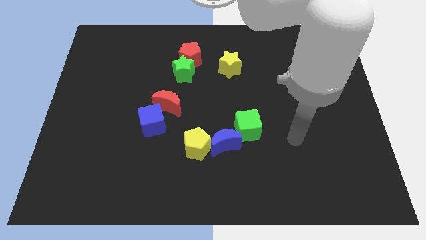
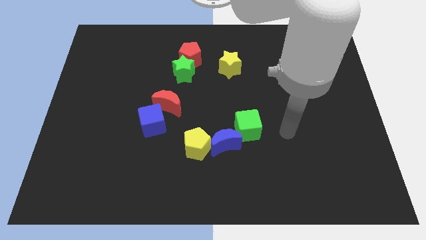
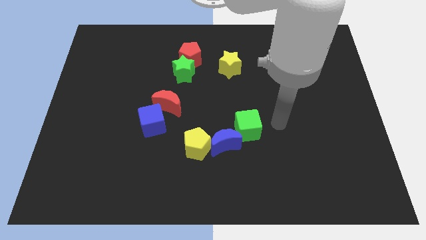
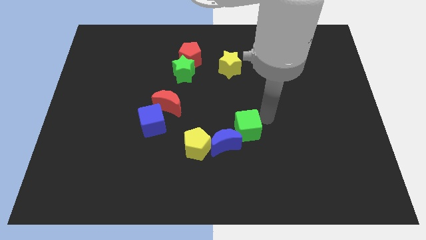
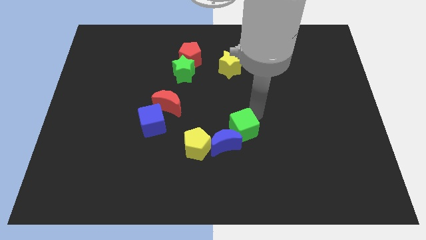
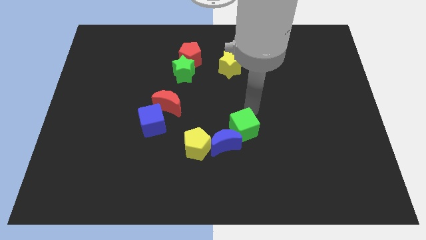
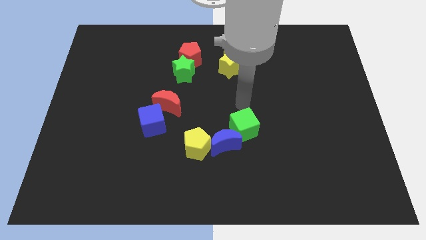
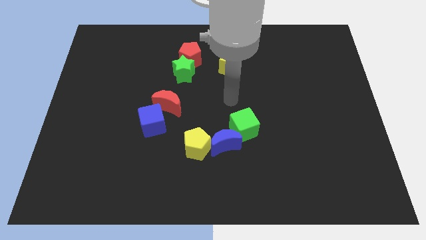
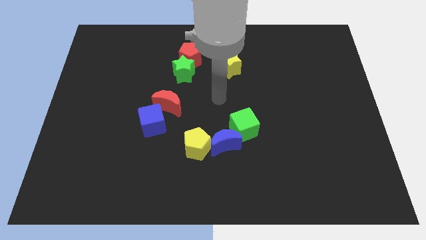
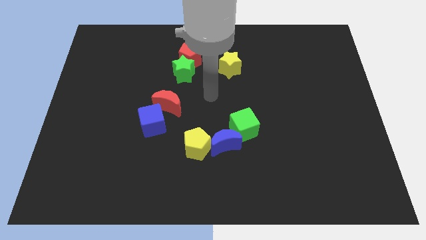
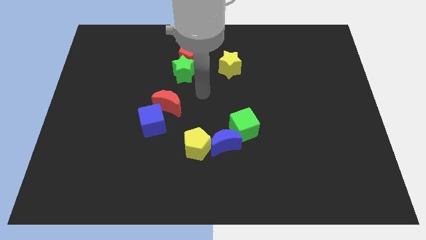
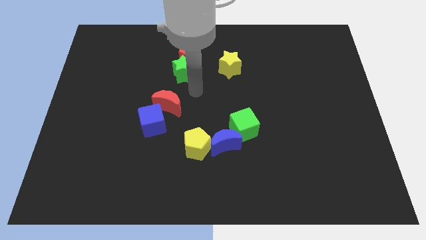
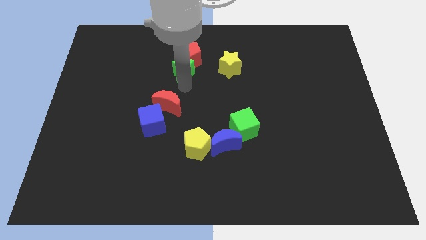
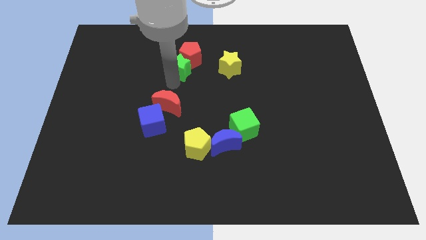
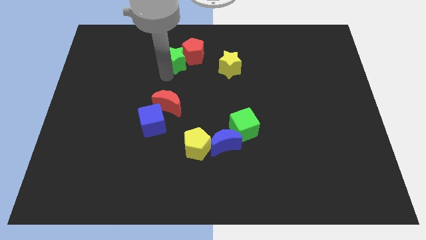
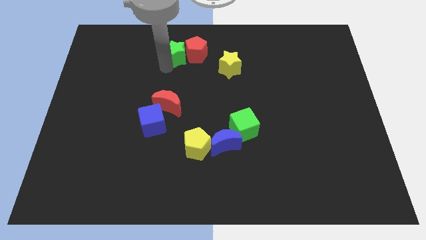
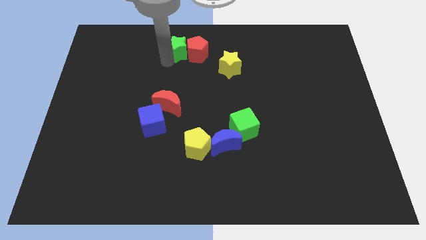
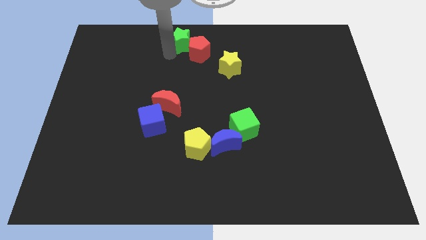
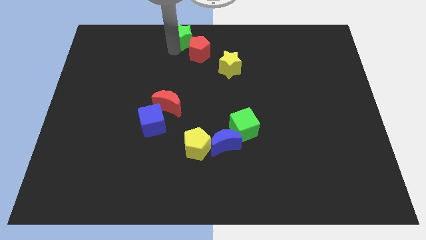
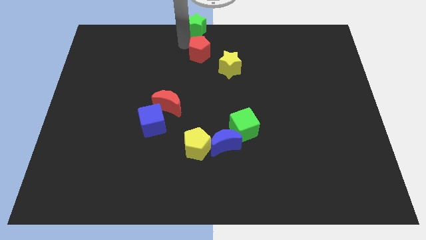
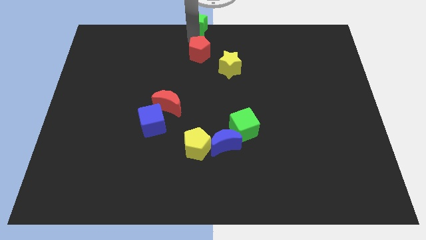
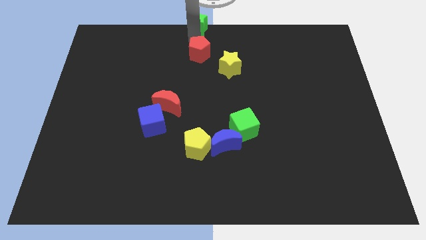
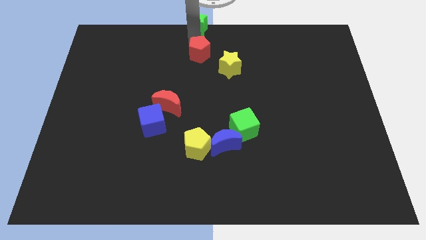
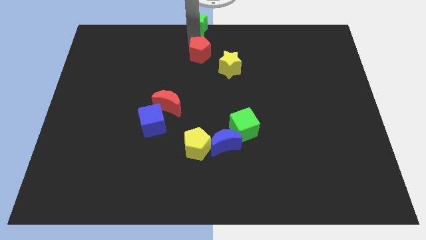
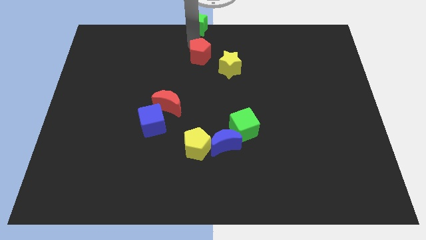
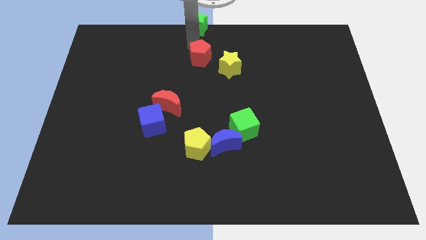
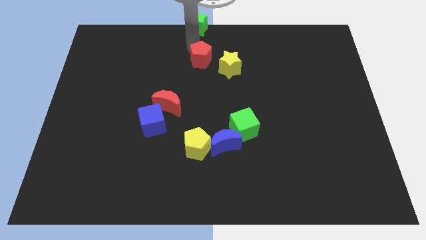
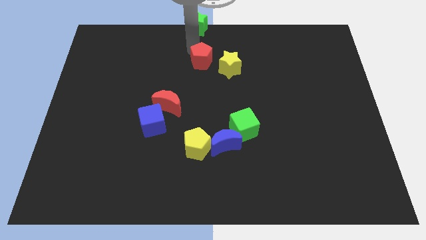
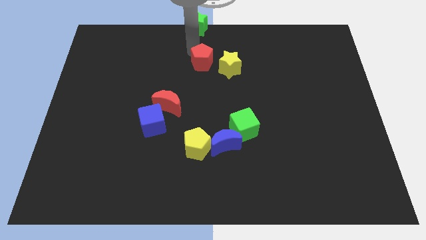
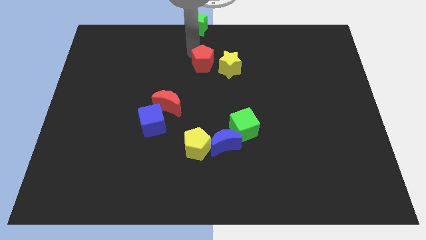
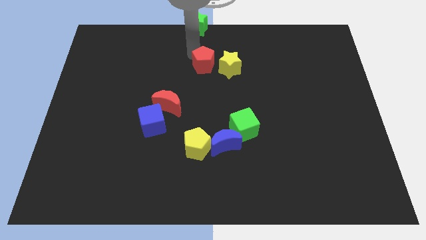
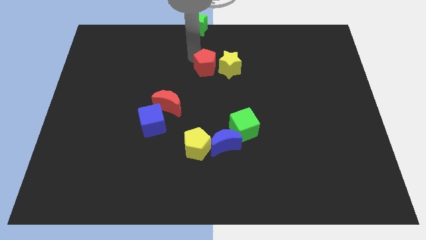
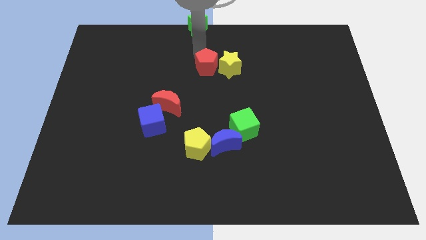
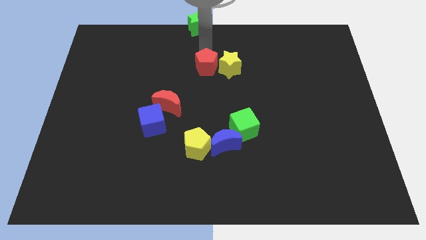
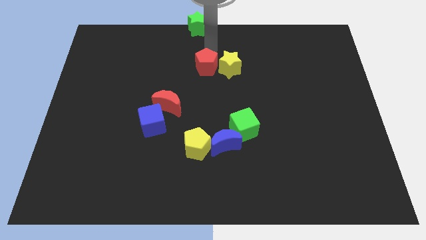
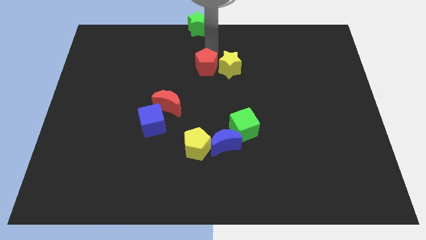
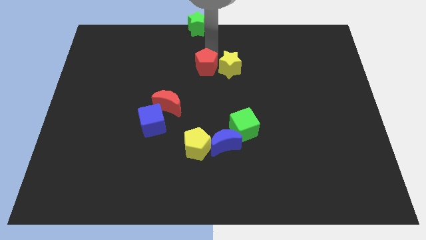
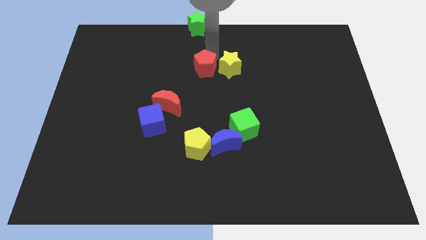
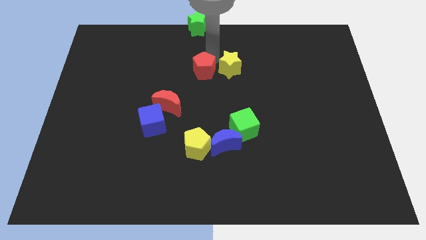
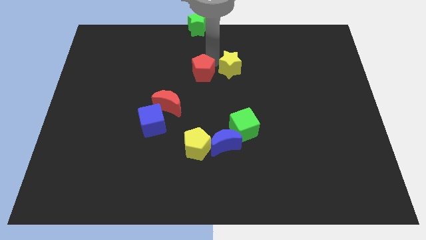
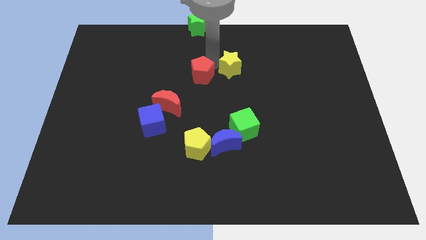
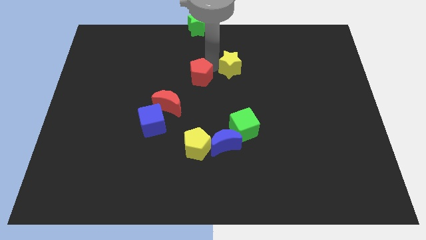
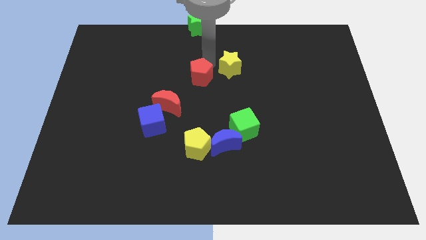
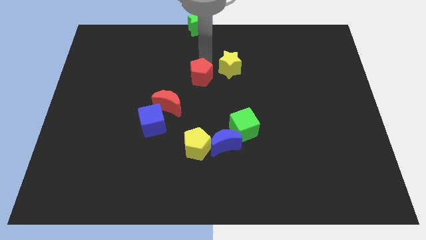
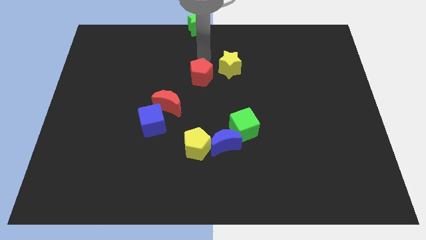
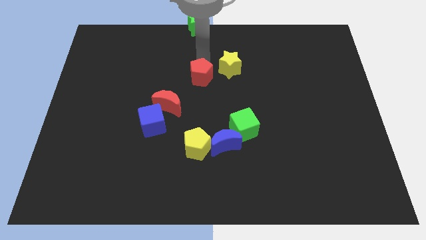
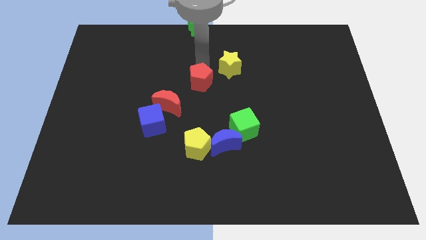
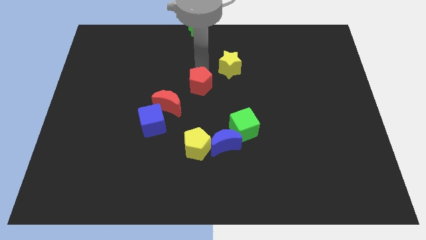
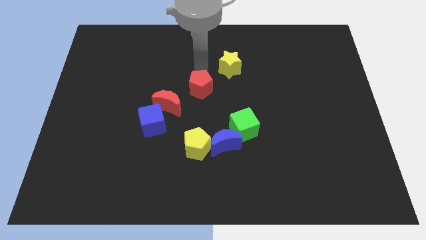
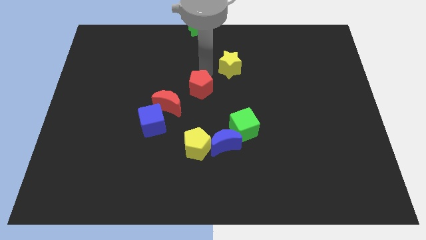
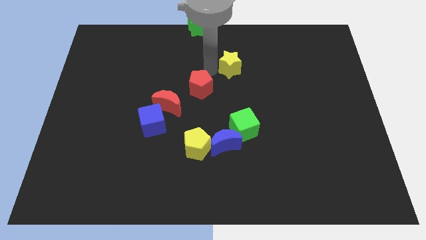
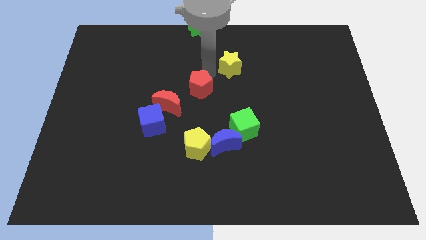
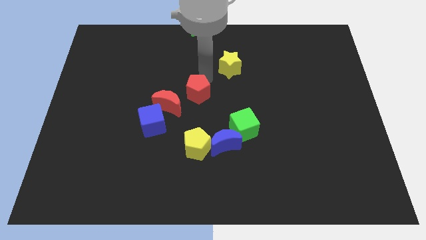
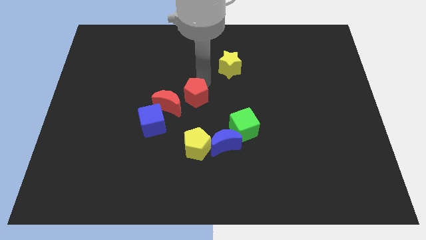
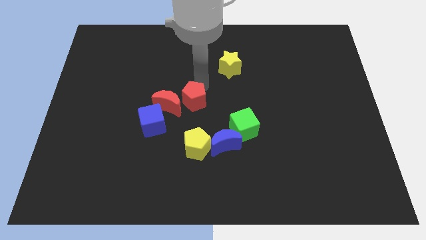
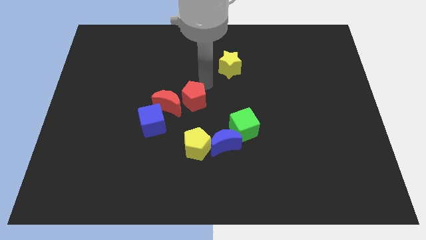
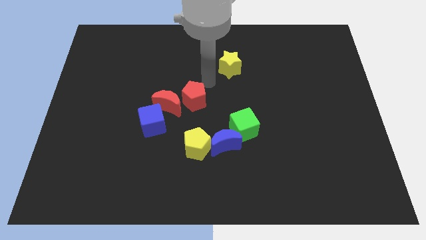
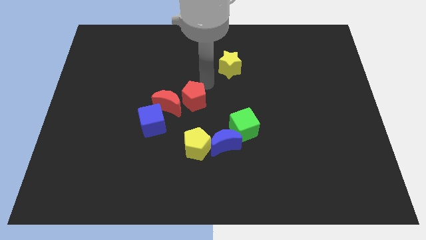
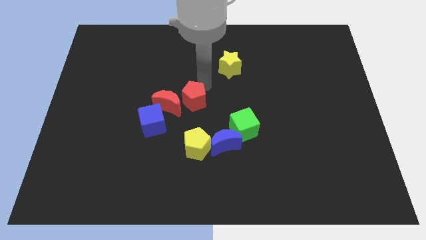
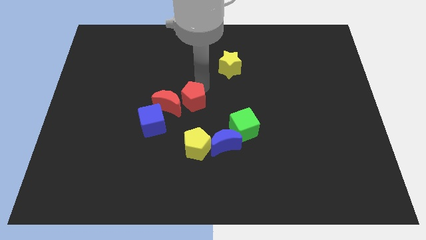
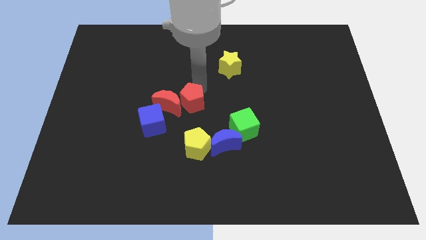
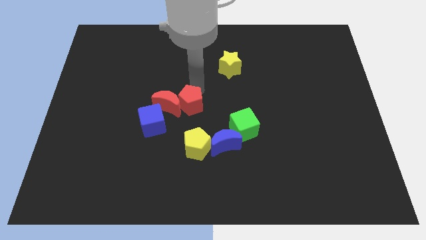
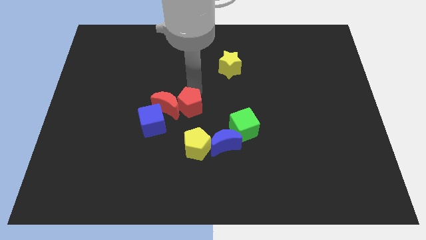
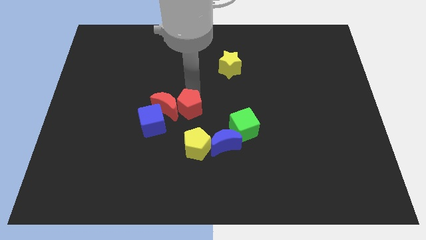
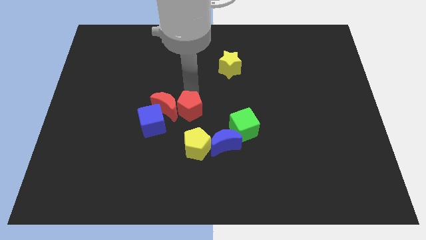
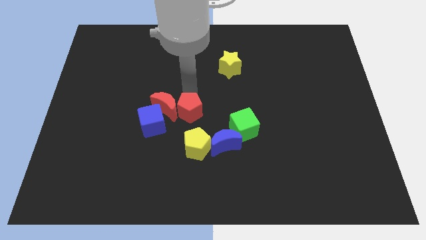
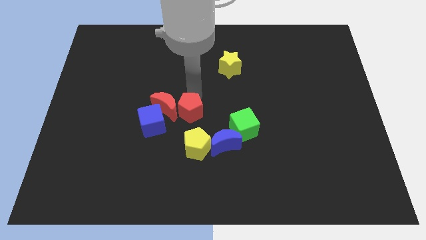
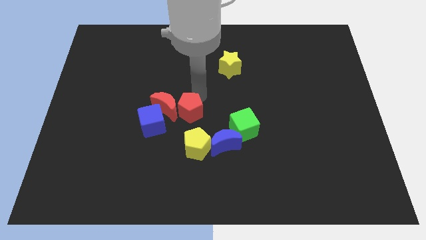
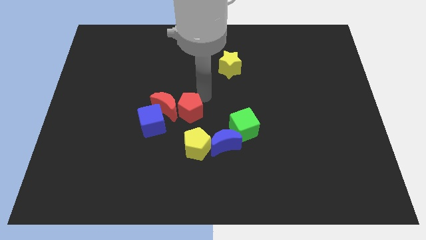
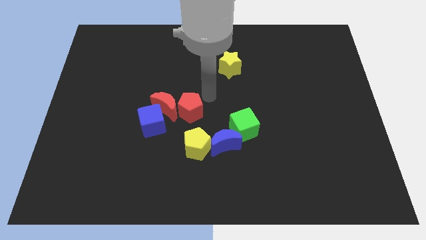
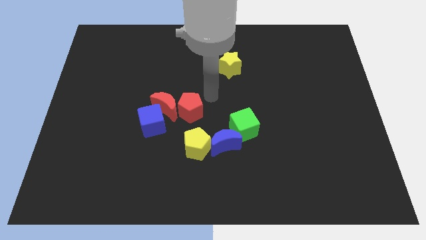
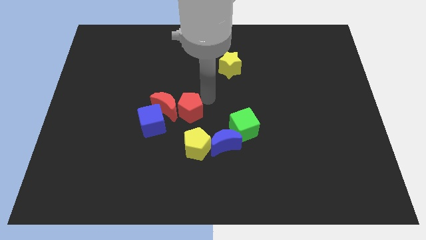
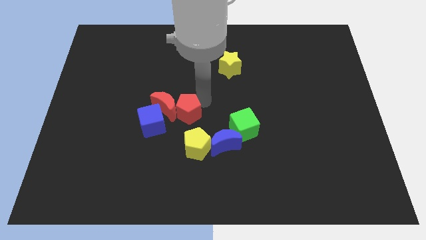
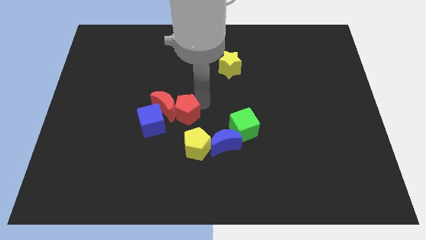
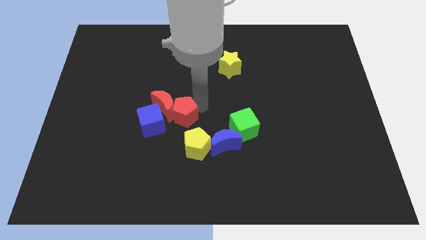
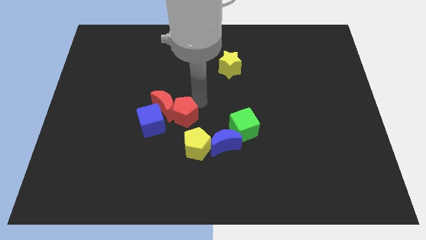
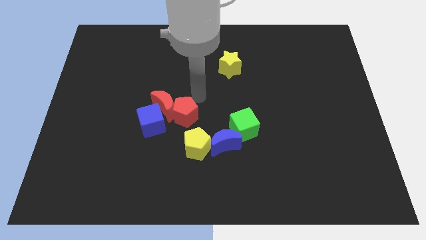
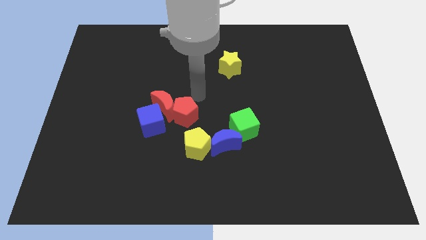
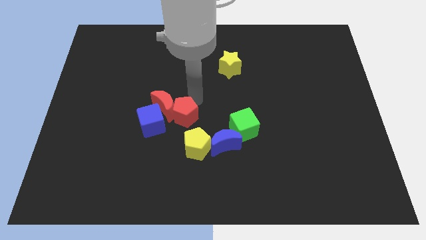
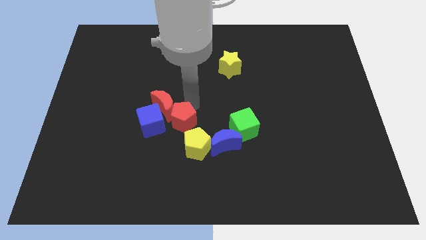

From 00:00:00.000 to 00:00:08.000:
slide the red pentagon downwards

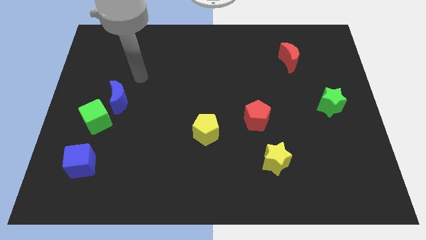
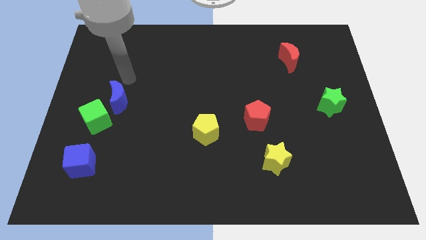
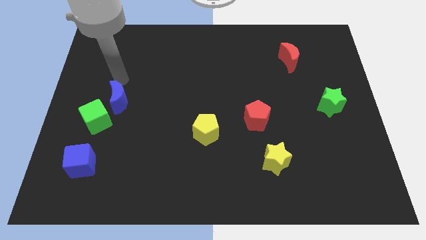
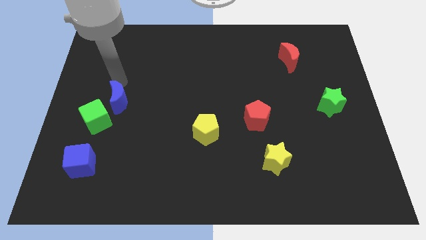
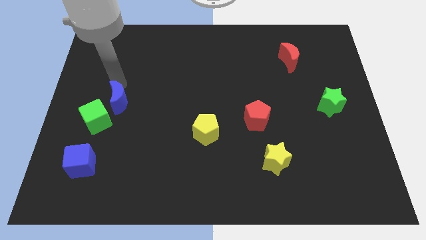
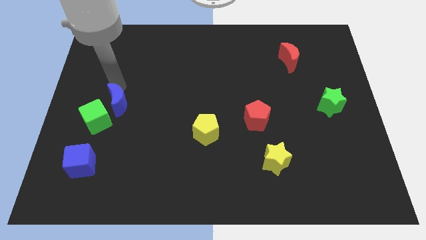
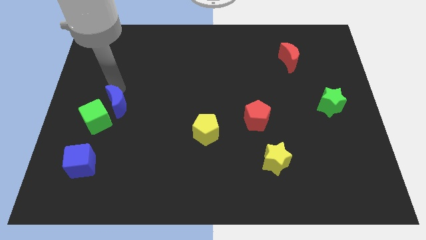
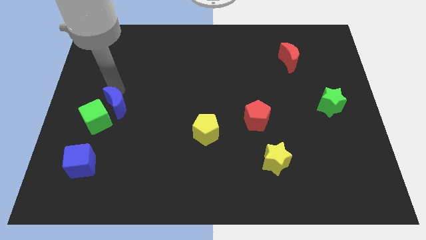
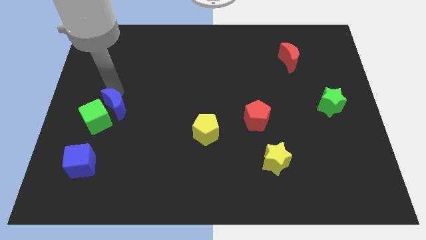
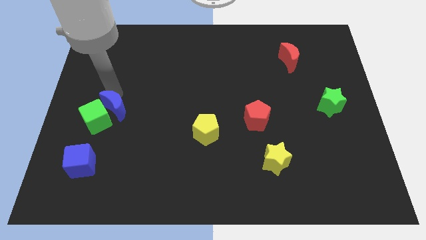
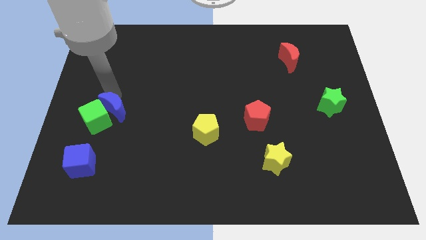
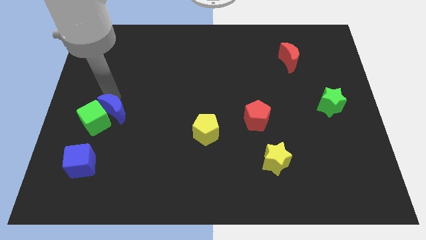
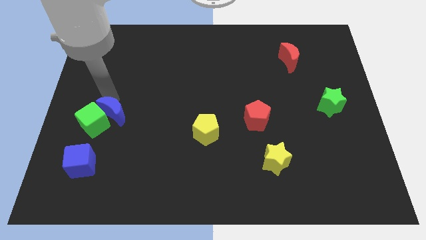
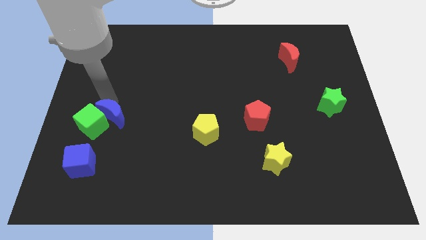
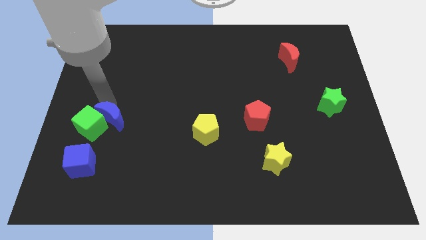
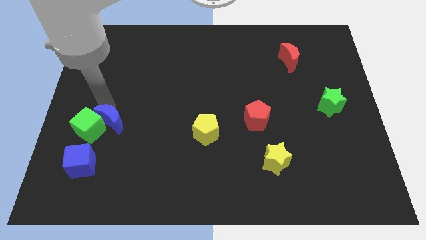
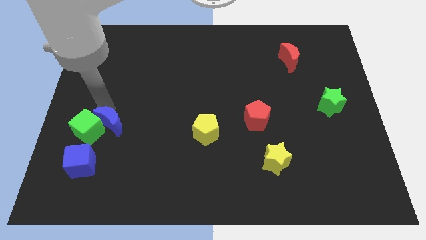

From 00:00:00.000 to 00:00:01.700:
slide the blue moon downwards a bit
